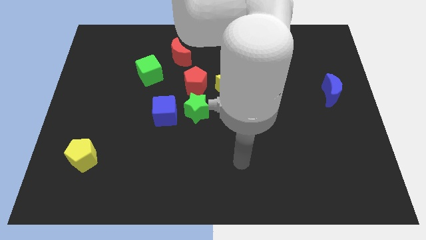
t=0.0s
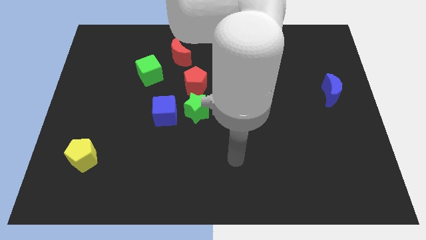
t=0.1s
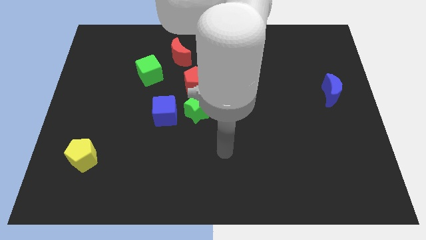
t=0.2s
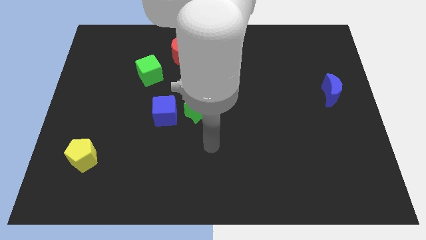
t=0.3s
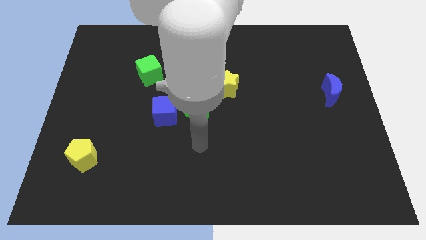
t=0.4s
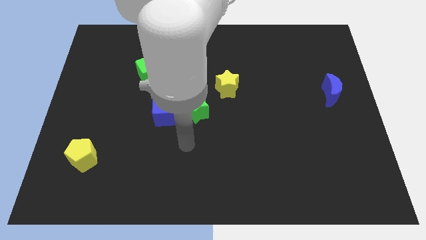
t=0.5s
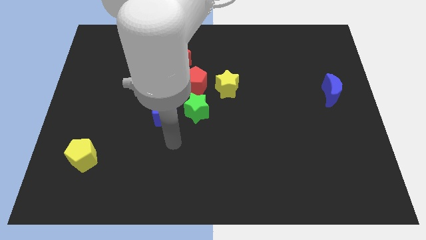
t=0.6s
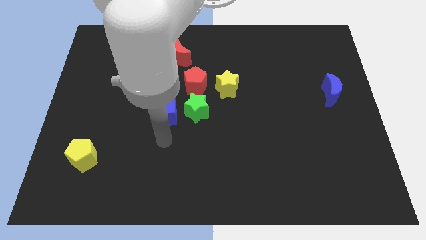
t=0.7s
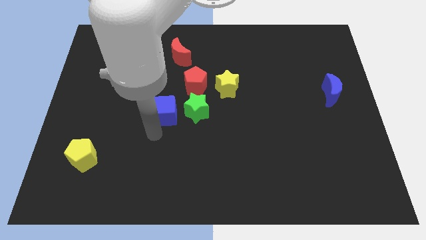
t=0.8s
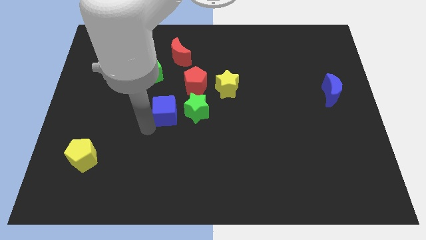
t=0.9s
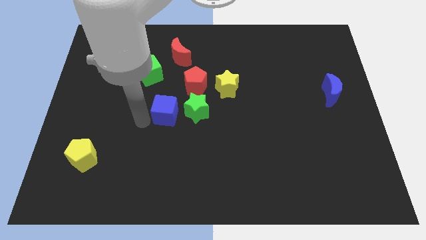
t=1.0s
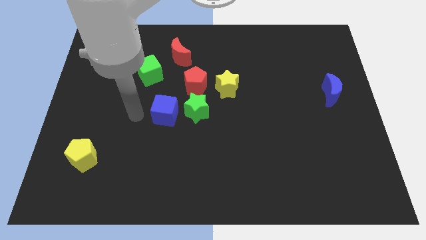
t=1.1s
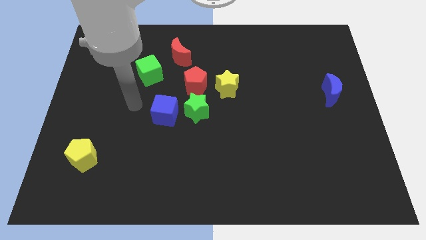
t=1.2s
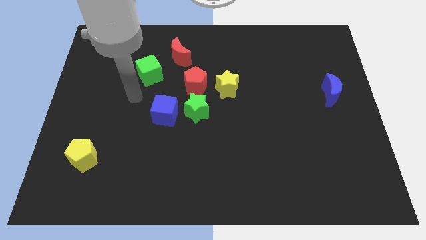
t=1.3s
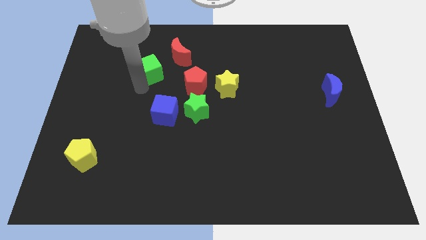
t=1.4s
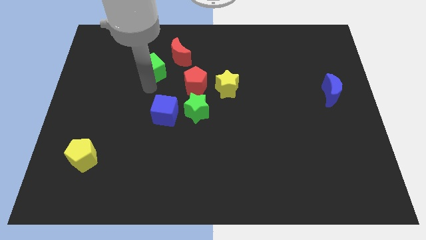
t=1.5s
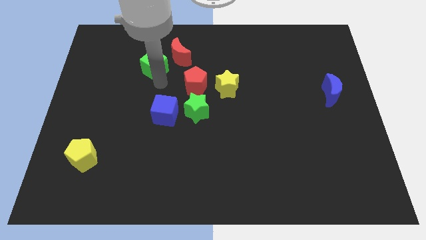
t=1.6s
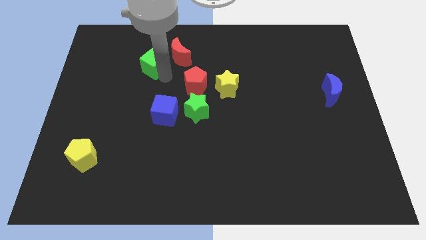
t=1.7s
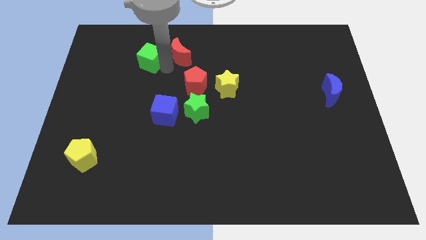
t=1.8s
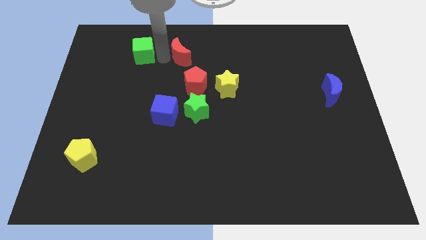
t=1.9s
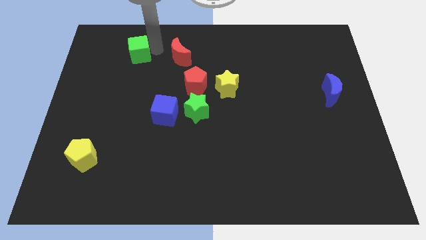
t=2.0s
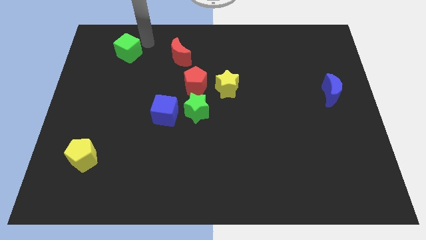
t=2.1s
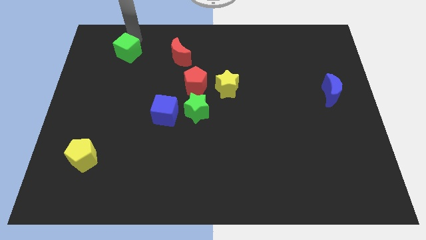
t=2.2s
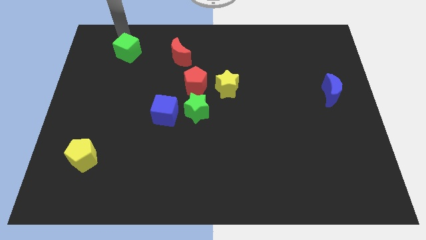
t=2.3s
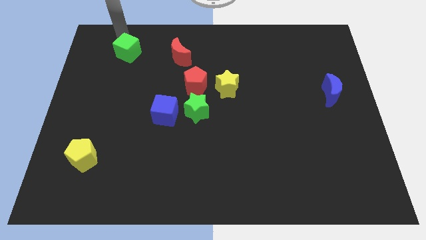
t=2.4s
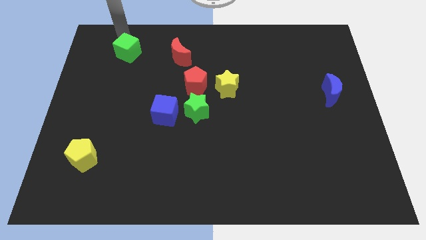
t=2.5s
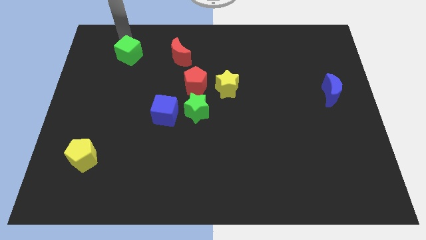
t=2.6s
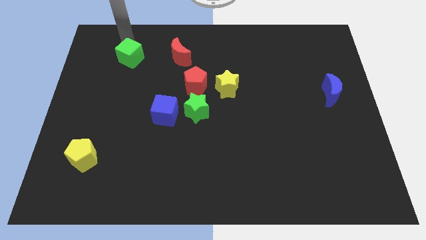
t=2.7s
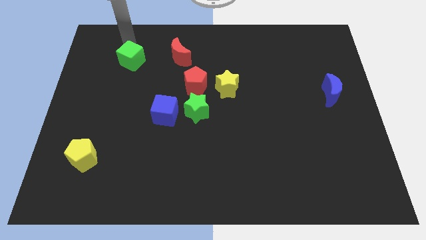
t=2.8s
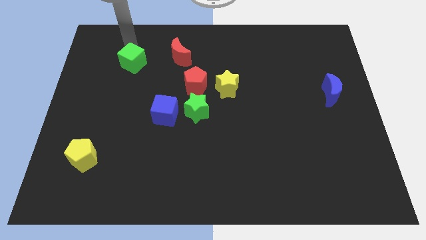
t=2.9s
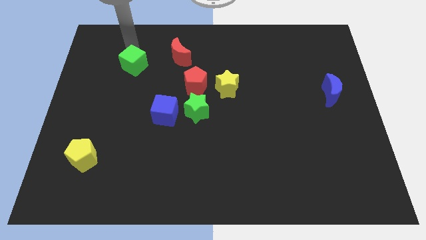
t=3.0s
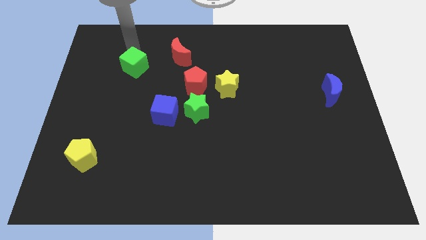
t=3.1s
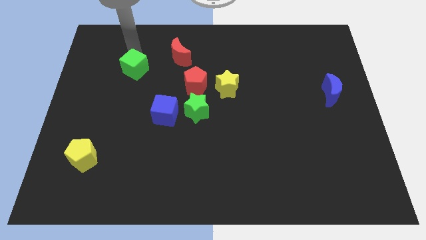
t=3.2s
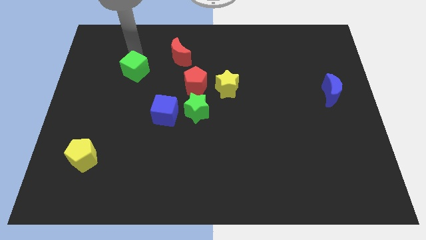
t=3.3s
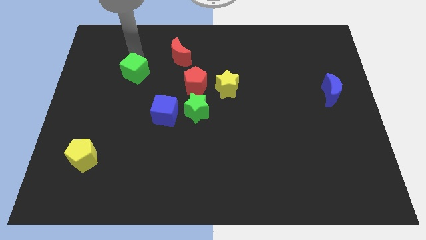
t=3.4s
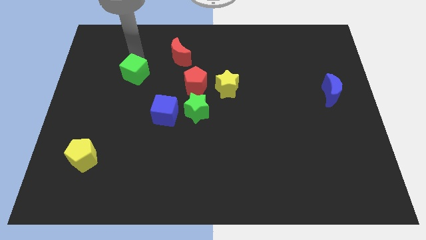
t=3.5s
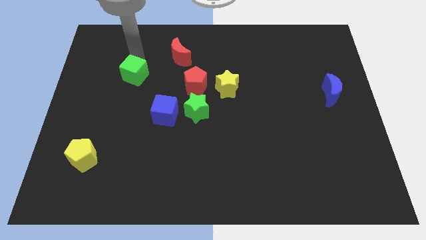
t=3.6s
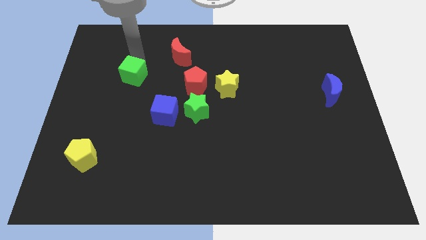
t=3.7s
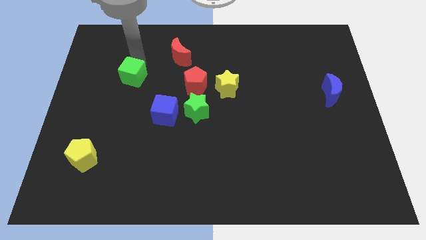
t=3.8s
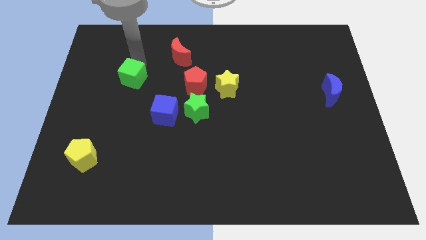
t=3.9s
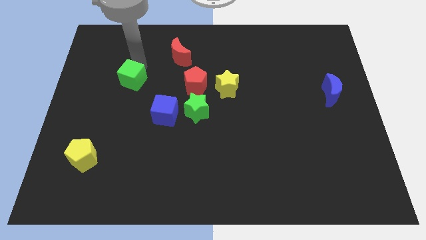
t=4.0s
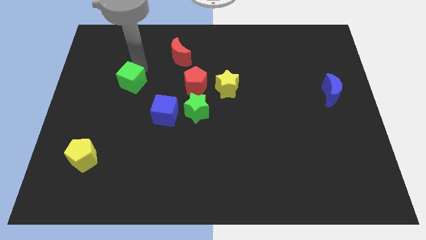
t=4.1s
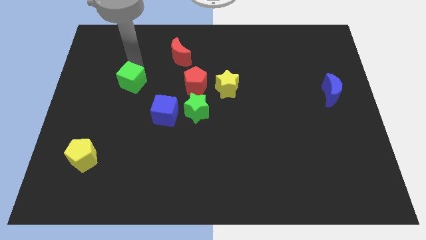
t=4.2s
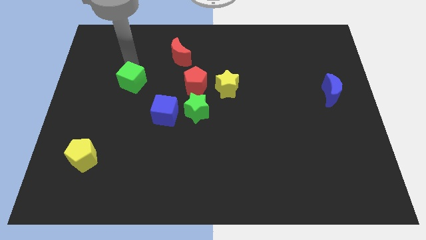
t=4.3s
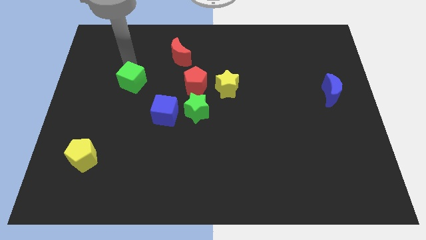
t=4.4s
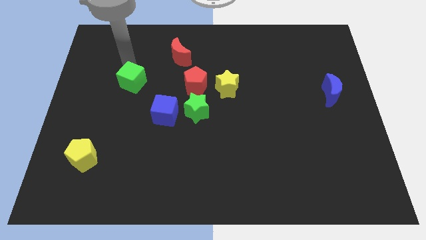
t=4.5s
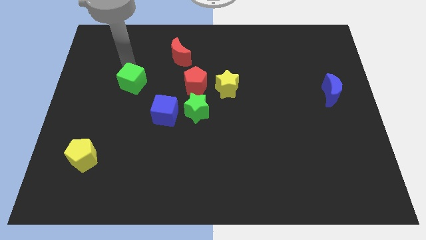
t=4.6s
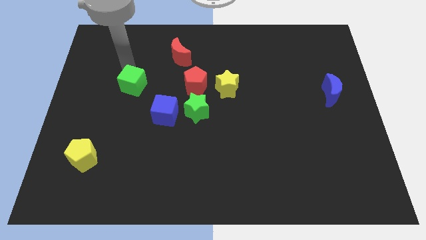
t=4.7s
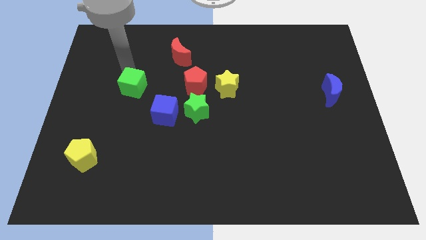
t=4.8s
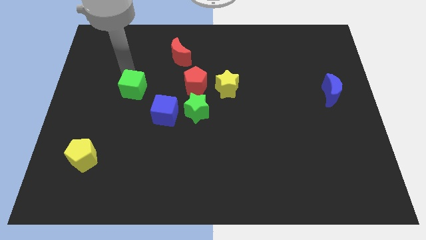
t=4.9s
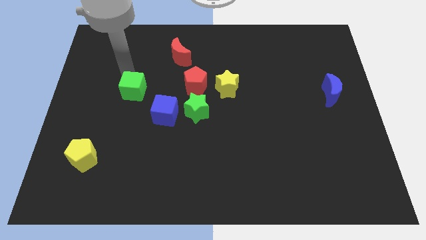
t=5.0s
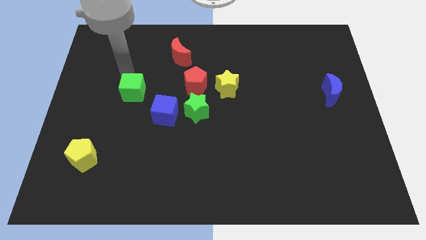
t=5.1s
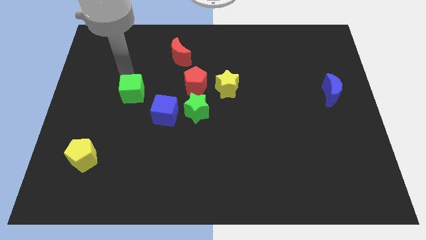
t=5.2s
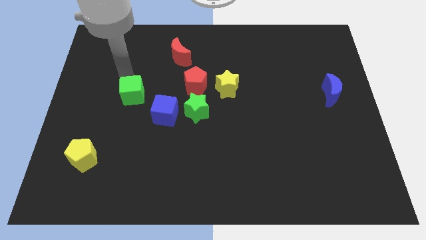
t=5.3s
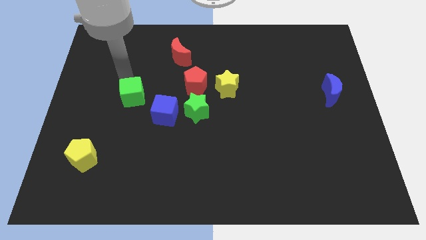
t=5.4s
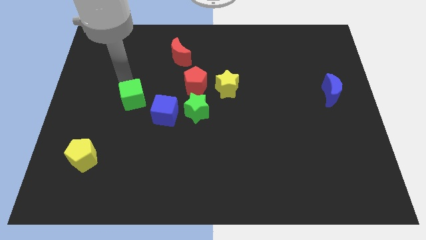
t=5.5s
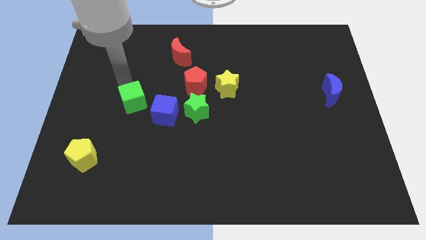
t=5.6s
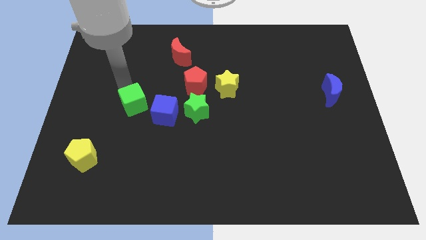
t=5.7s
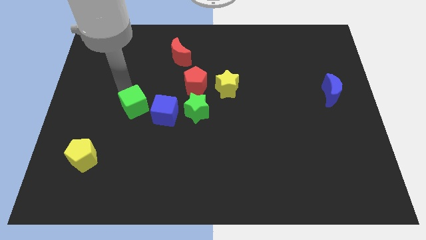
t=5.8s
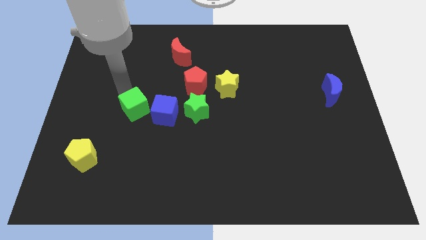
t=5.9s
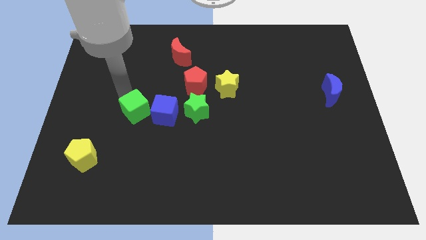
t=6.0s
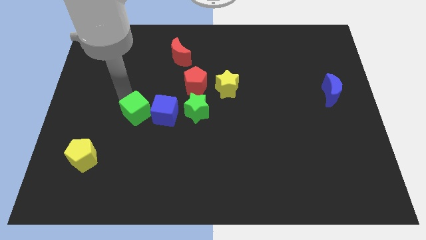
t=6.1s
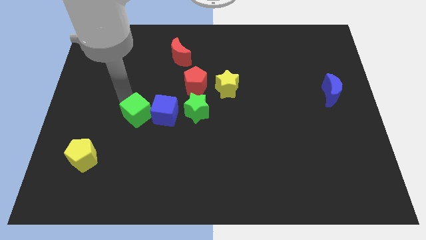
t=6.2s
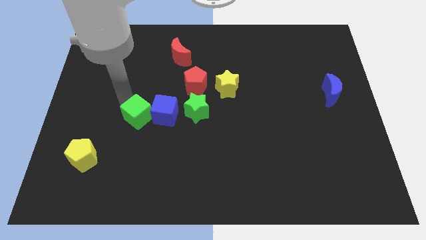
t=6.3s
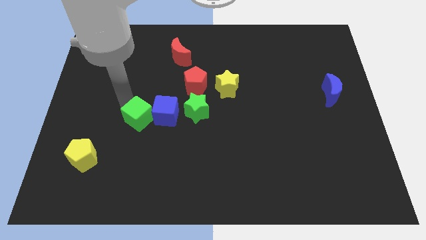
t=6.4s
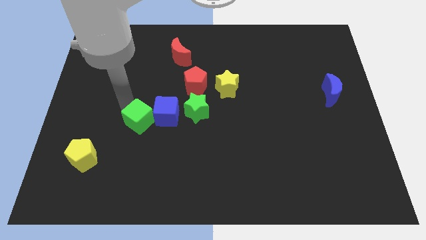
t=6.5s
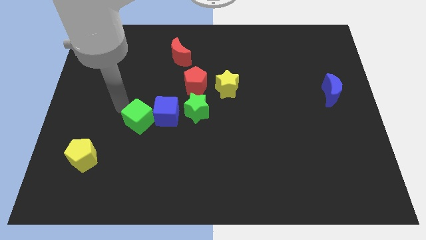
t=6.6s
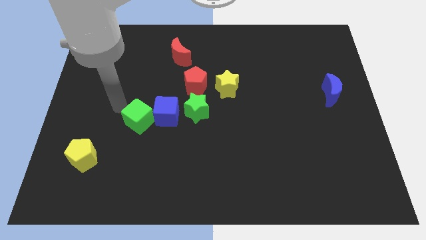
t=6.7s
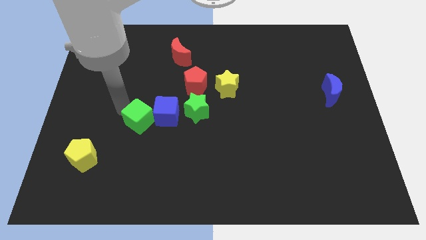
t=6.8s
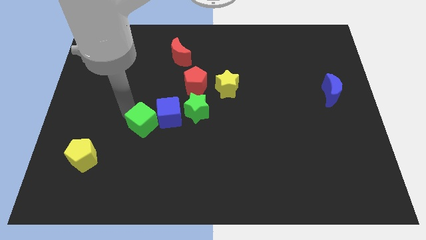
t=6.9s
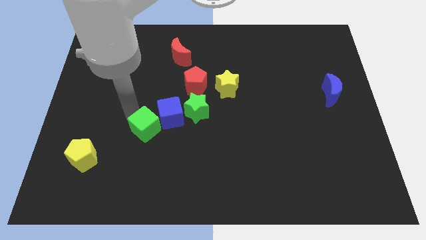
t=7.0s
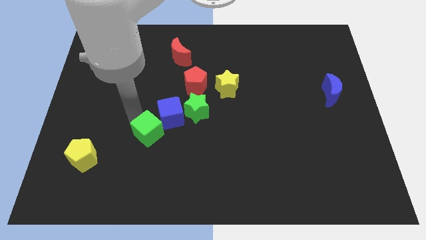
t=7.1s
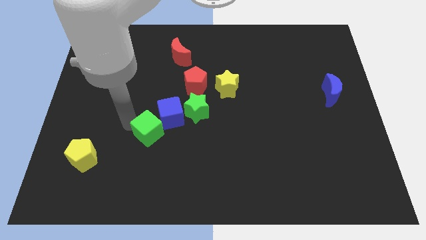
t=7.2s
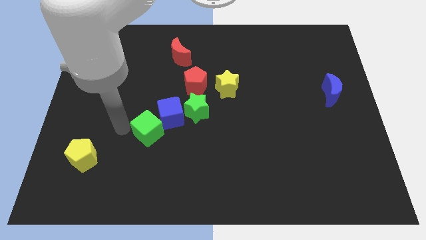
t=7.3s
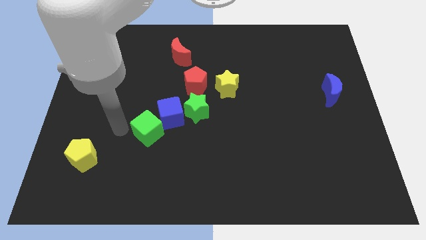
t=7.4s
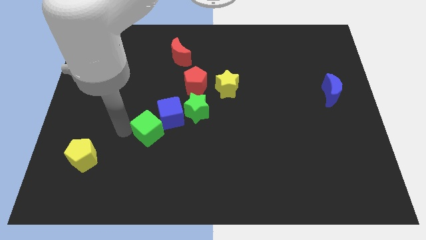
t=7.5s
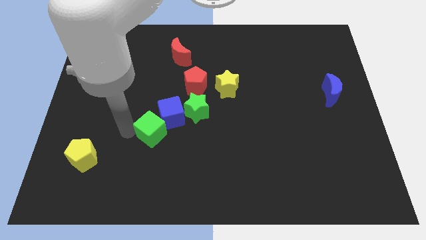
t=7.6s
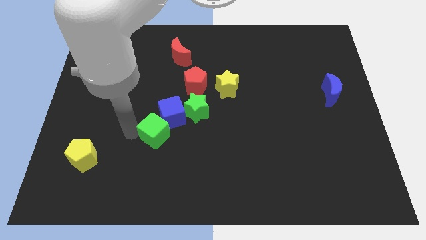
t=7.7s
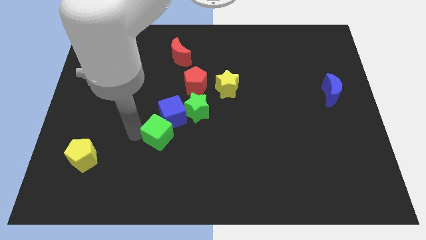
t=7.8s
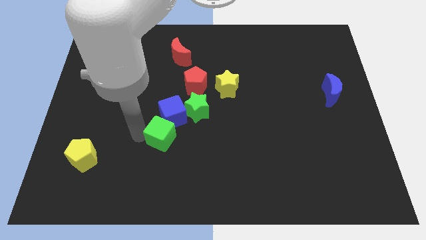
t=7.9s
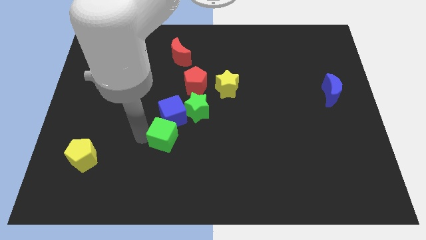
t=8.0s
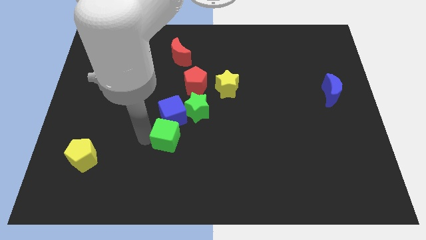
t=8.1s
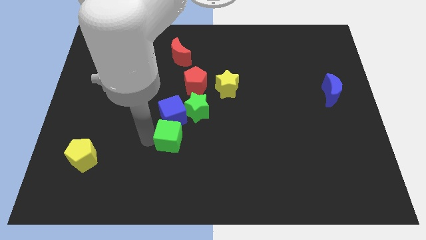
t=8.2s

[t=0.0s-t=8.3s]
slide the green cube to the bottom right of the blue cube
